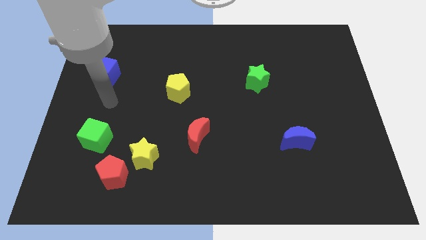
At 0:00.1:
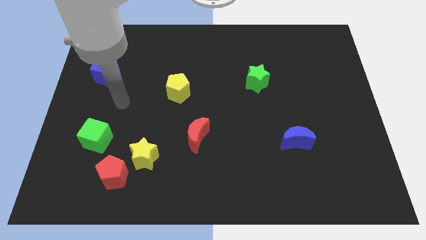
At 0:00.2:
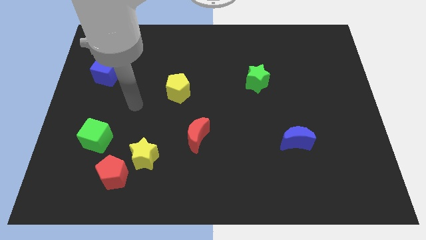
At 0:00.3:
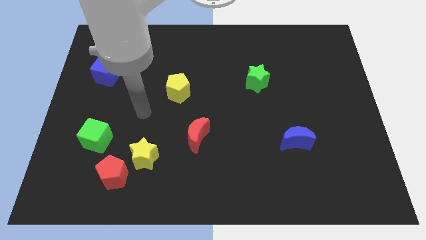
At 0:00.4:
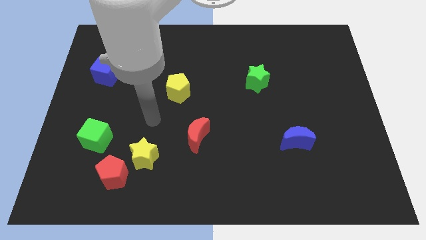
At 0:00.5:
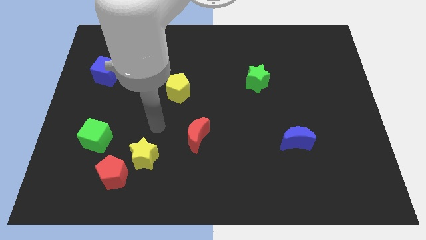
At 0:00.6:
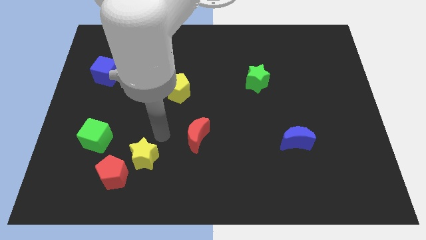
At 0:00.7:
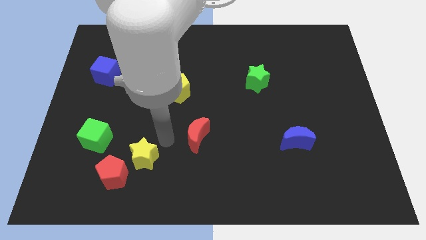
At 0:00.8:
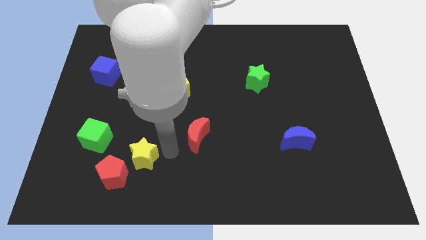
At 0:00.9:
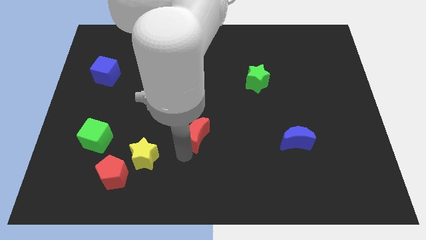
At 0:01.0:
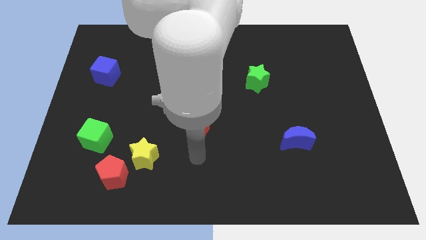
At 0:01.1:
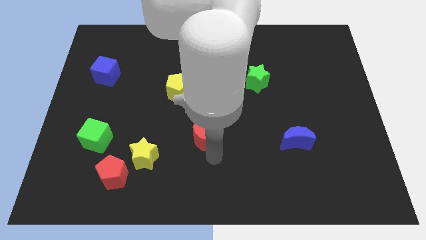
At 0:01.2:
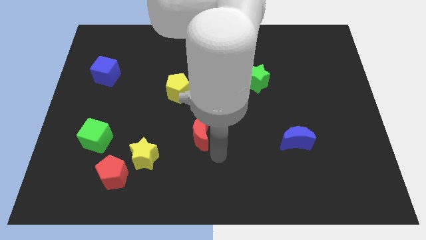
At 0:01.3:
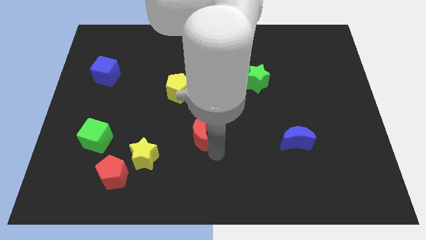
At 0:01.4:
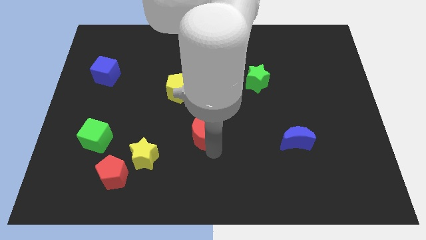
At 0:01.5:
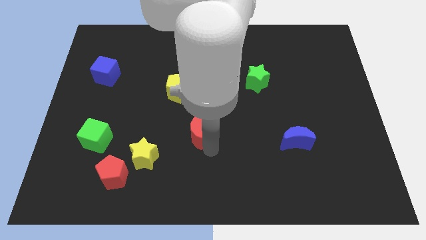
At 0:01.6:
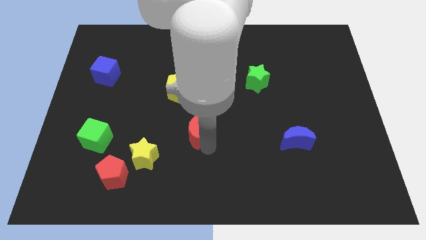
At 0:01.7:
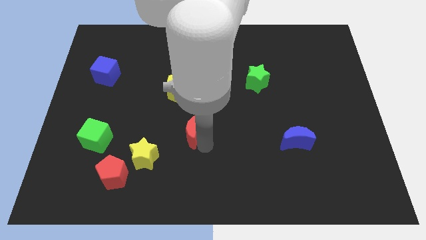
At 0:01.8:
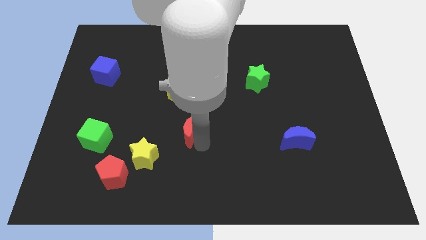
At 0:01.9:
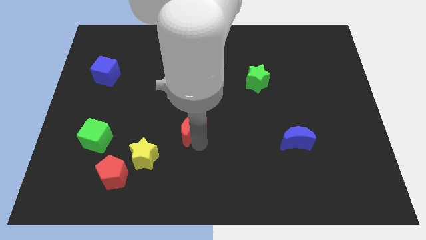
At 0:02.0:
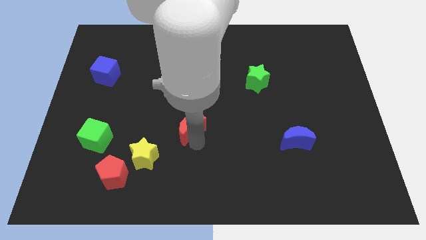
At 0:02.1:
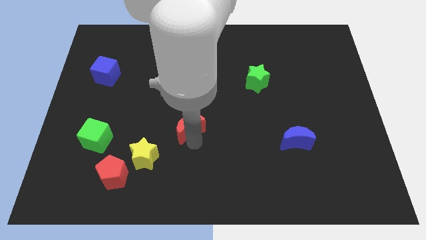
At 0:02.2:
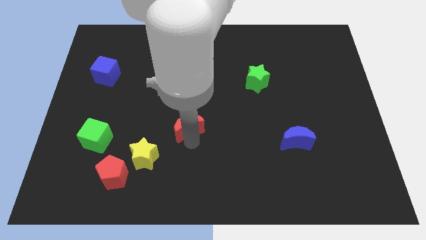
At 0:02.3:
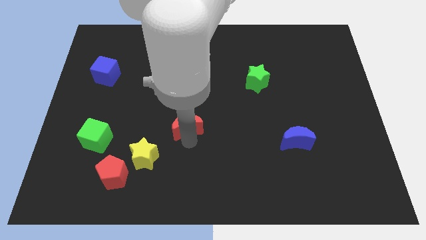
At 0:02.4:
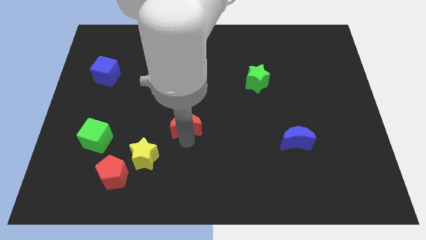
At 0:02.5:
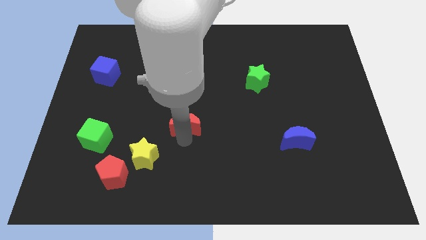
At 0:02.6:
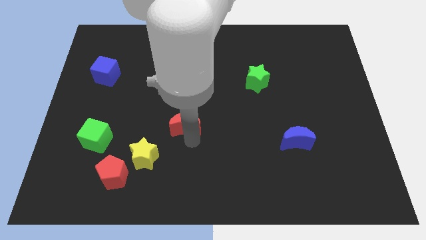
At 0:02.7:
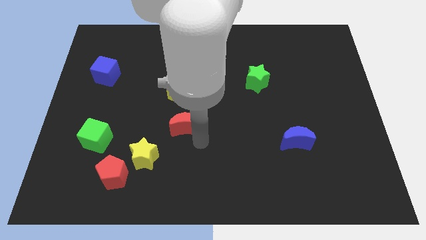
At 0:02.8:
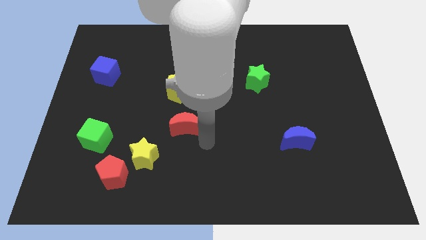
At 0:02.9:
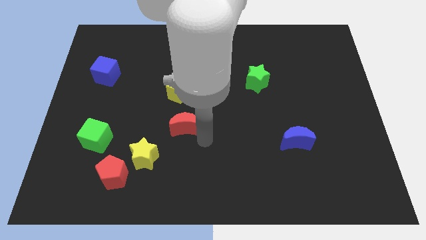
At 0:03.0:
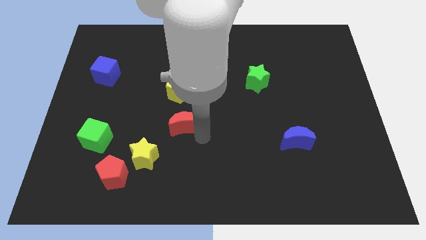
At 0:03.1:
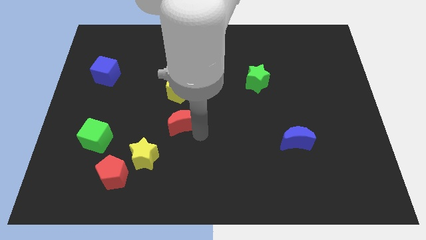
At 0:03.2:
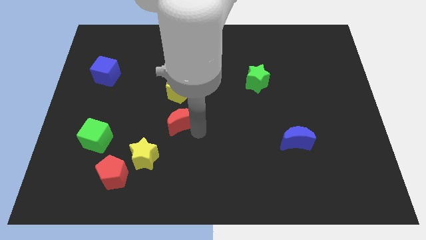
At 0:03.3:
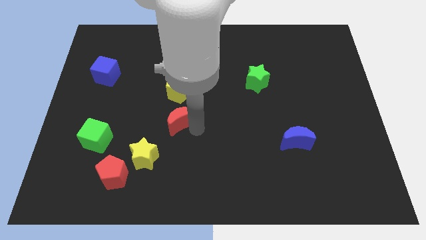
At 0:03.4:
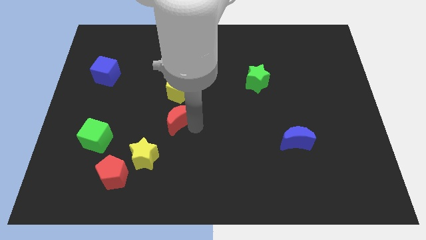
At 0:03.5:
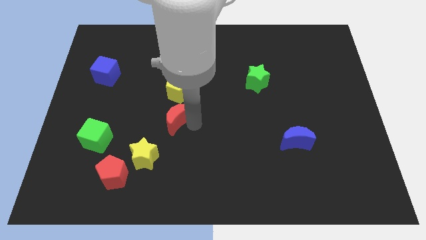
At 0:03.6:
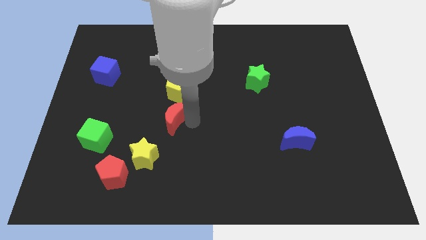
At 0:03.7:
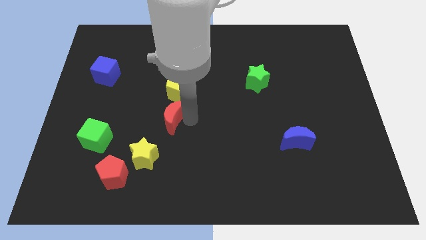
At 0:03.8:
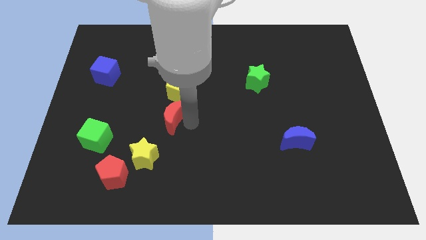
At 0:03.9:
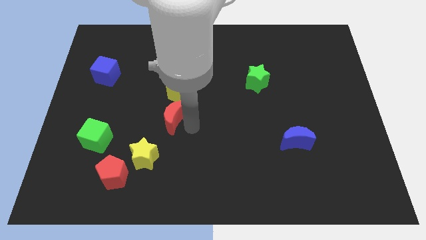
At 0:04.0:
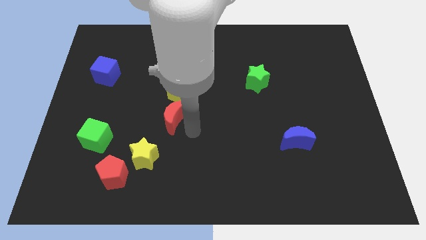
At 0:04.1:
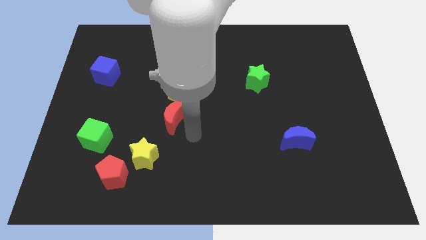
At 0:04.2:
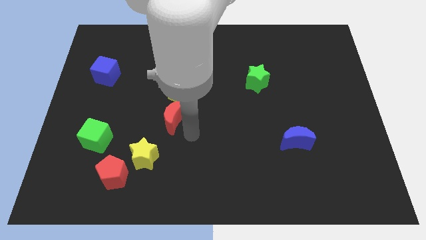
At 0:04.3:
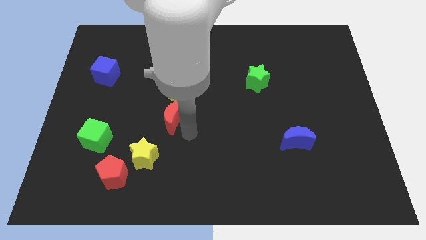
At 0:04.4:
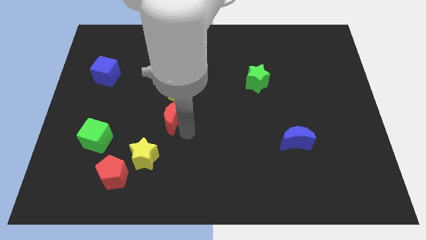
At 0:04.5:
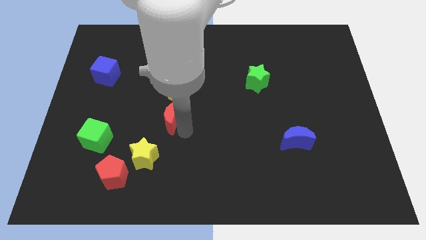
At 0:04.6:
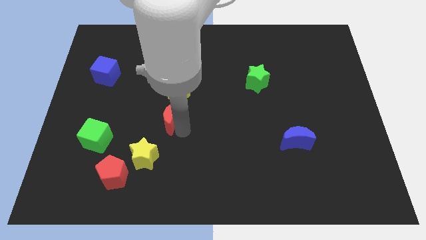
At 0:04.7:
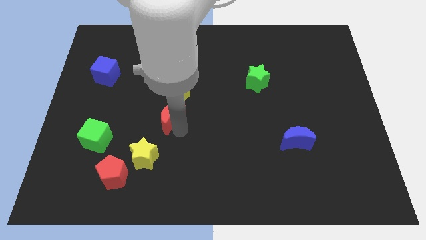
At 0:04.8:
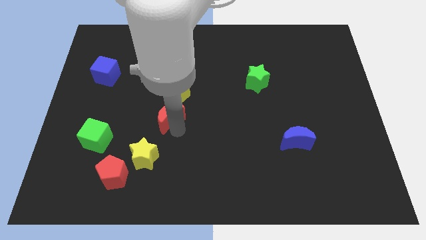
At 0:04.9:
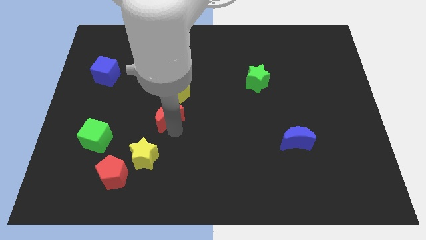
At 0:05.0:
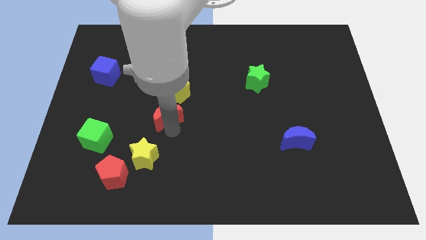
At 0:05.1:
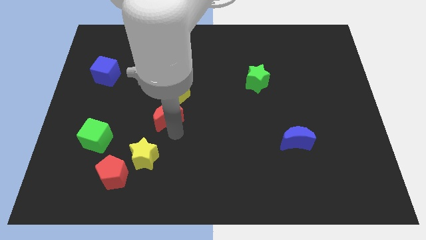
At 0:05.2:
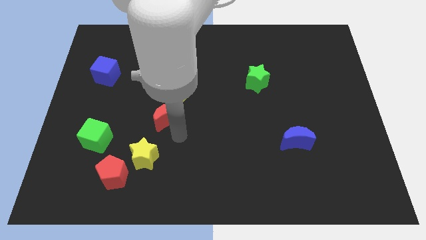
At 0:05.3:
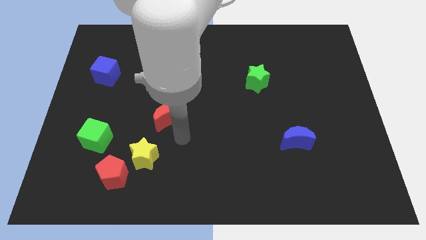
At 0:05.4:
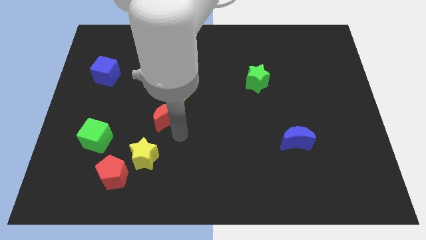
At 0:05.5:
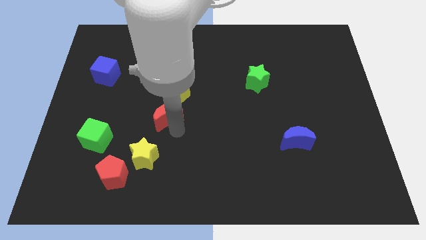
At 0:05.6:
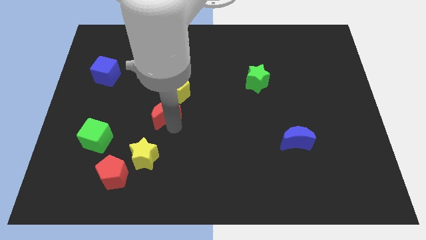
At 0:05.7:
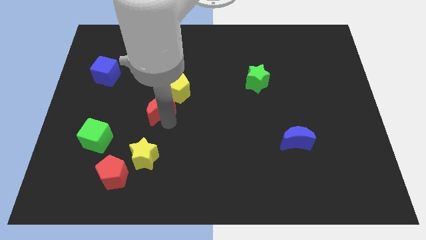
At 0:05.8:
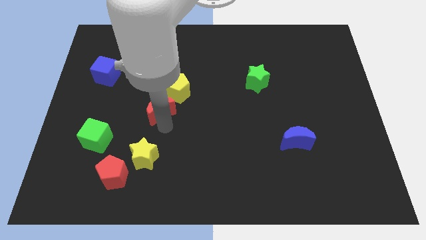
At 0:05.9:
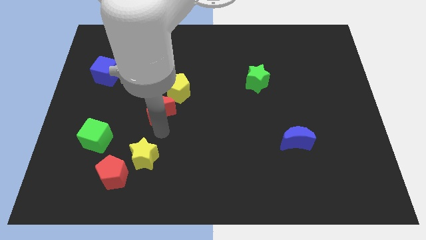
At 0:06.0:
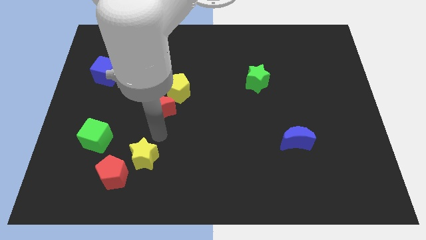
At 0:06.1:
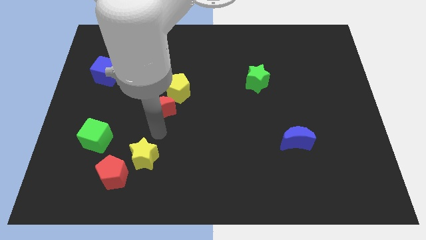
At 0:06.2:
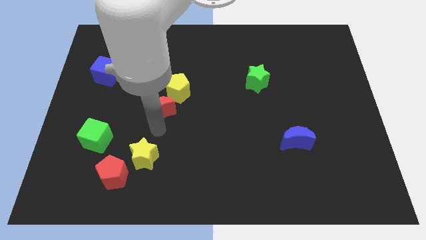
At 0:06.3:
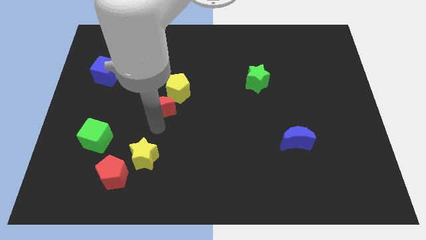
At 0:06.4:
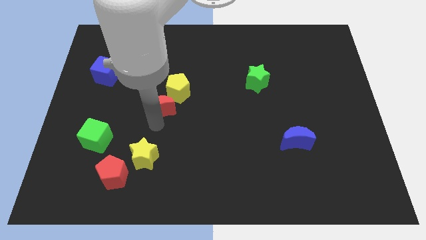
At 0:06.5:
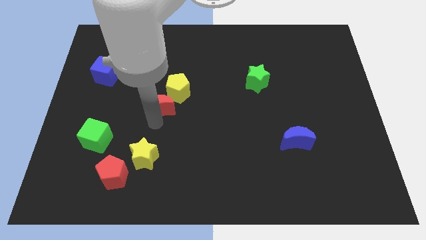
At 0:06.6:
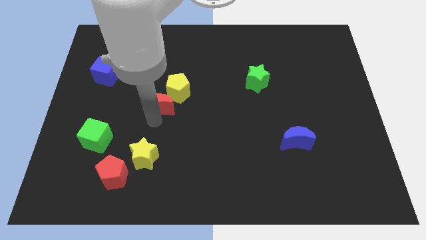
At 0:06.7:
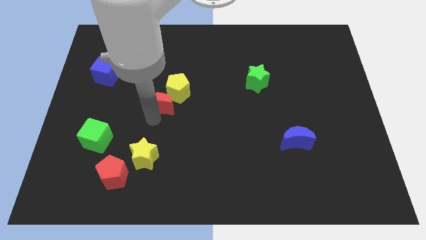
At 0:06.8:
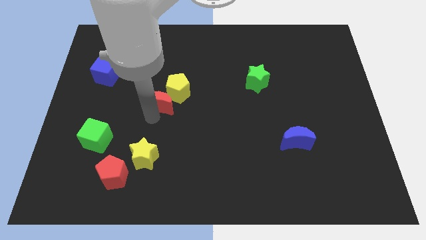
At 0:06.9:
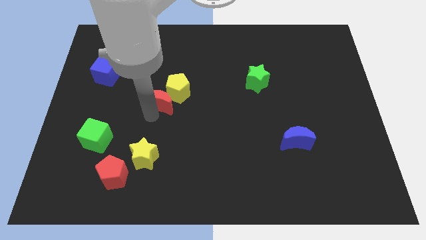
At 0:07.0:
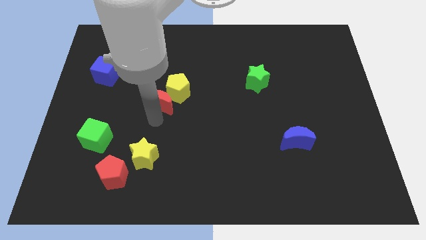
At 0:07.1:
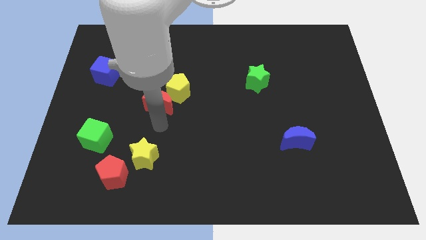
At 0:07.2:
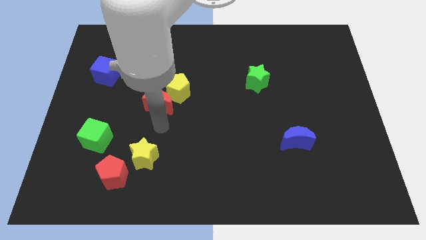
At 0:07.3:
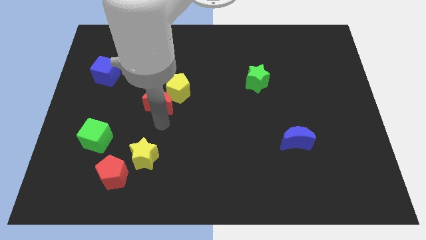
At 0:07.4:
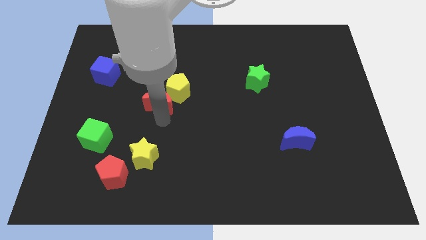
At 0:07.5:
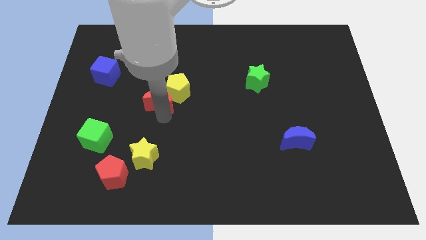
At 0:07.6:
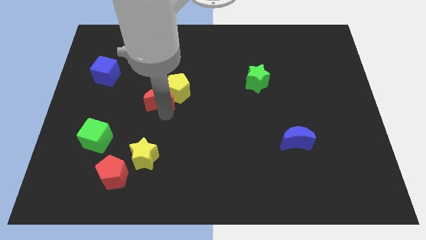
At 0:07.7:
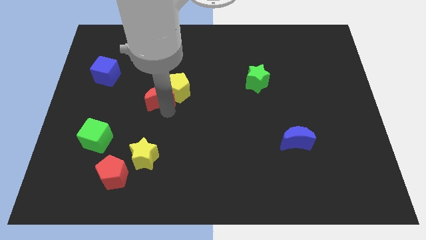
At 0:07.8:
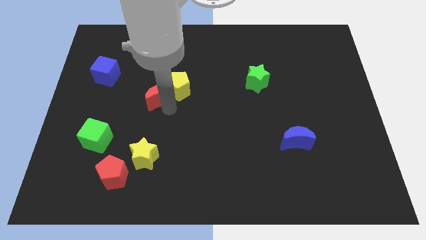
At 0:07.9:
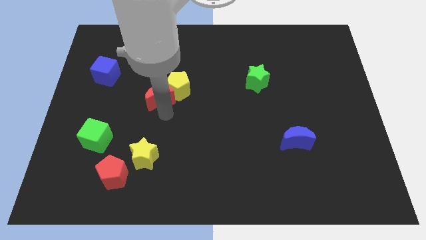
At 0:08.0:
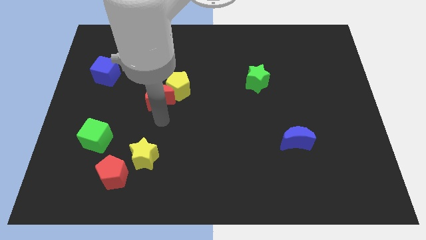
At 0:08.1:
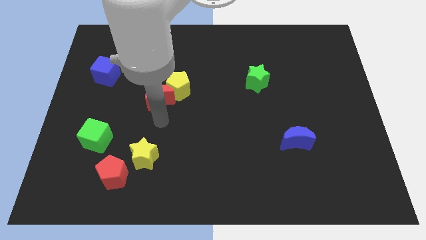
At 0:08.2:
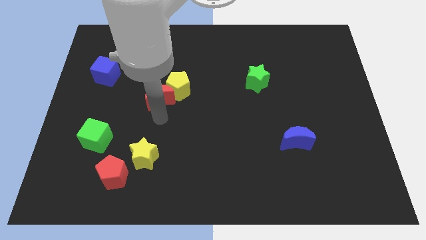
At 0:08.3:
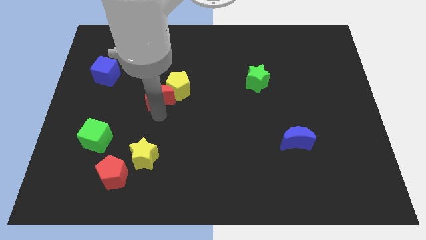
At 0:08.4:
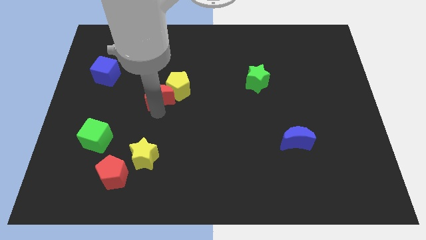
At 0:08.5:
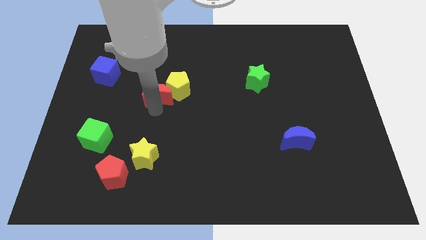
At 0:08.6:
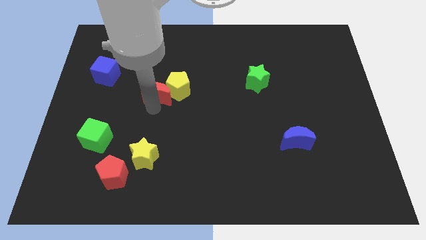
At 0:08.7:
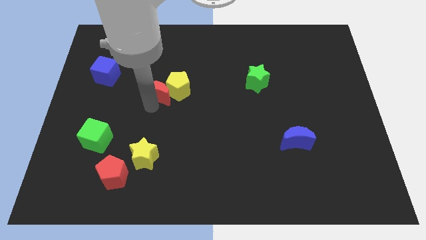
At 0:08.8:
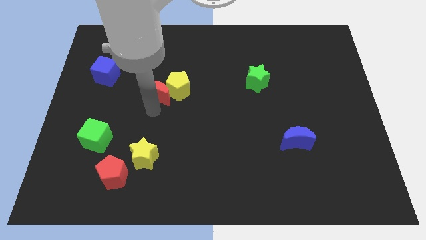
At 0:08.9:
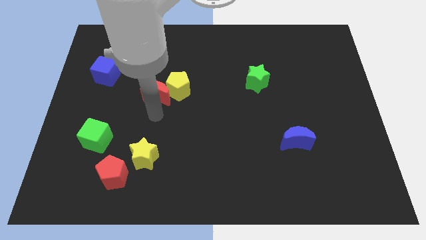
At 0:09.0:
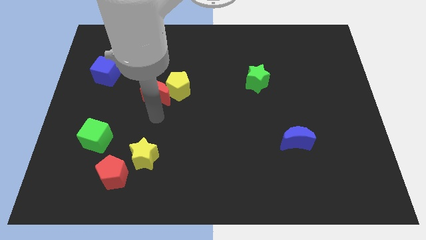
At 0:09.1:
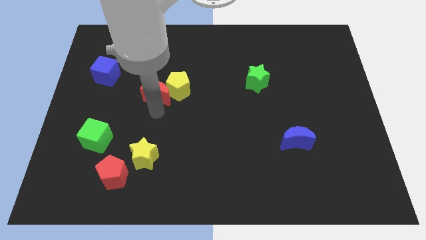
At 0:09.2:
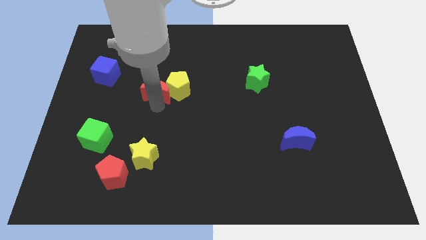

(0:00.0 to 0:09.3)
put the red moon to the top left of the yellow pentagon
